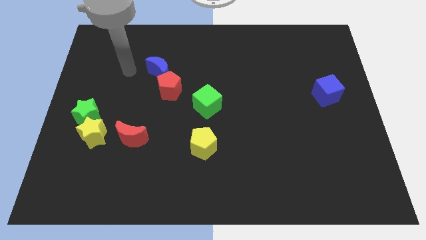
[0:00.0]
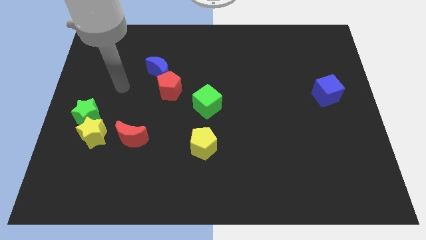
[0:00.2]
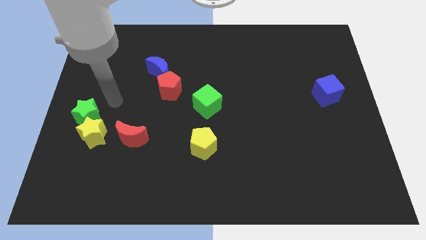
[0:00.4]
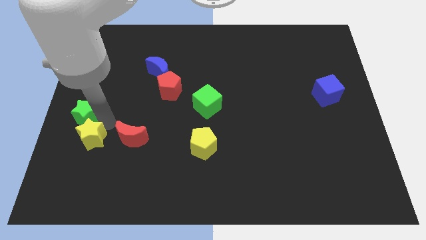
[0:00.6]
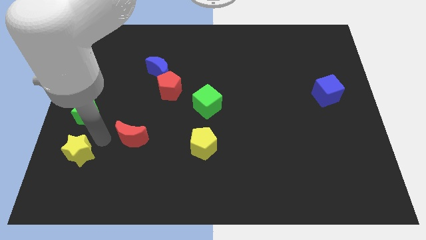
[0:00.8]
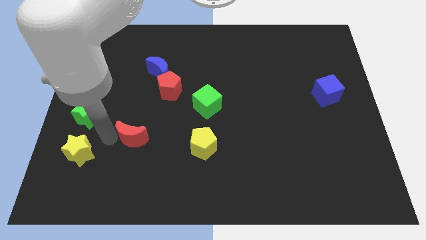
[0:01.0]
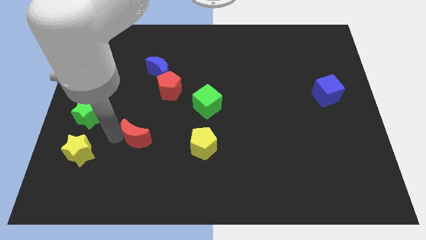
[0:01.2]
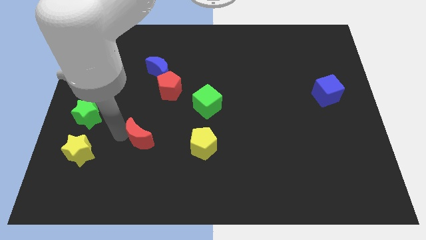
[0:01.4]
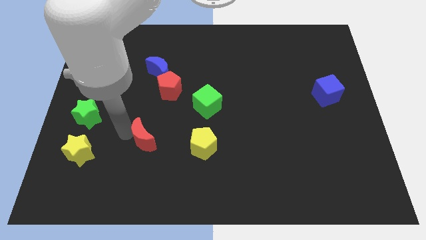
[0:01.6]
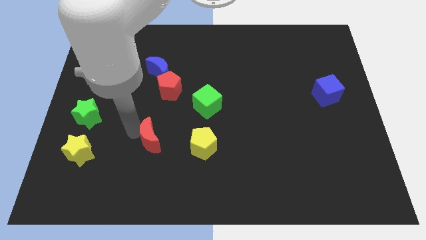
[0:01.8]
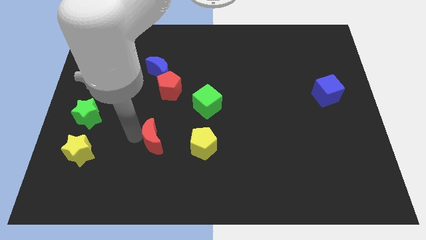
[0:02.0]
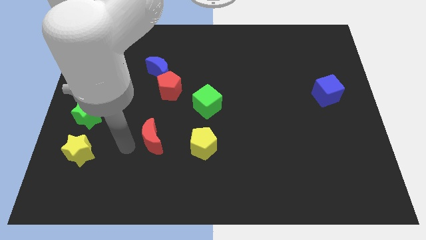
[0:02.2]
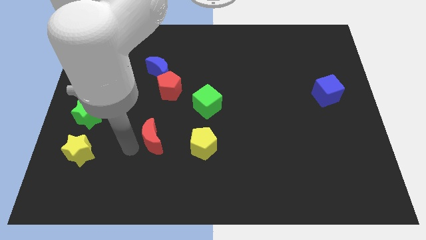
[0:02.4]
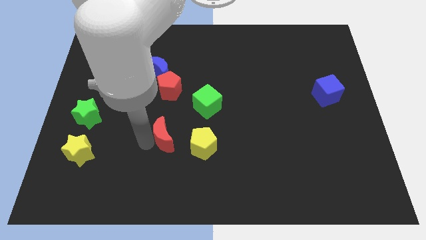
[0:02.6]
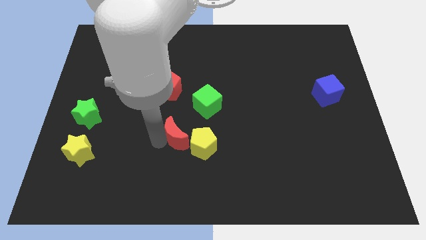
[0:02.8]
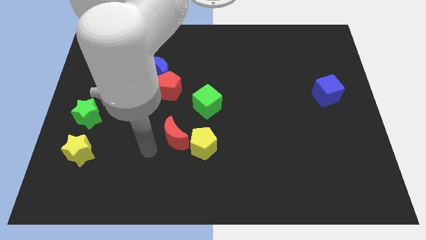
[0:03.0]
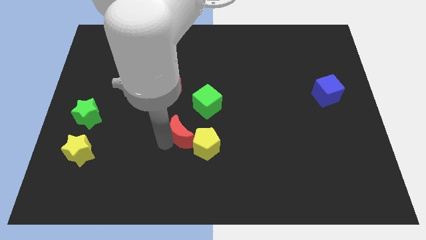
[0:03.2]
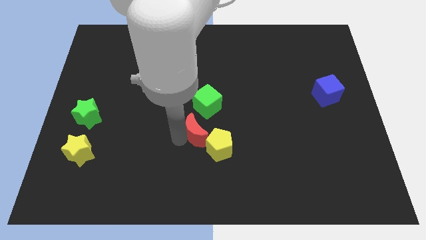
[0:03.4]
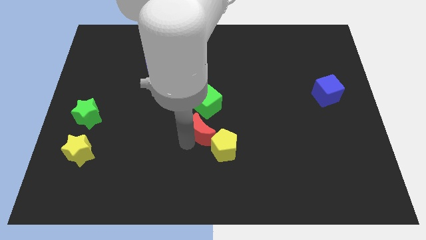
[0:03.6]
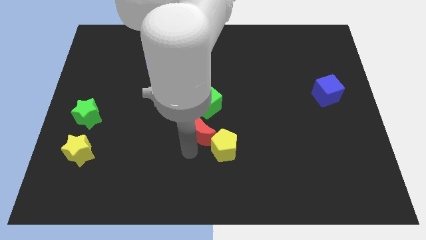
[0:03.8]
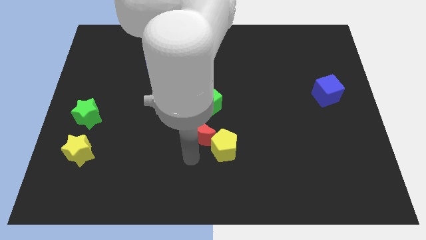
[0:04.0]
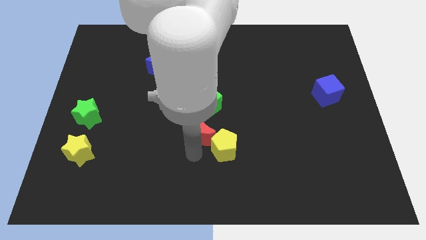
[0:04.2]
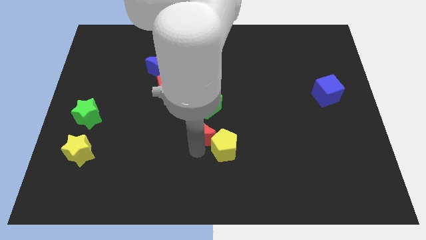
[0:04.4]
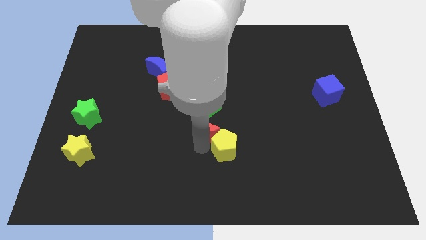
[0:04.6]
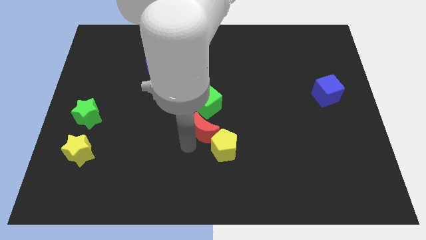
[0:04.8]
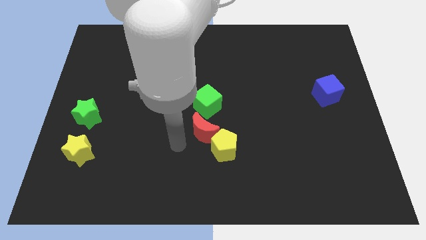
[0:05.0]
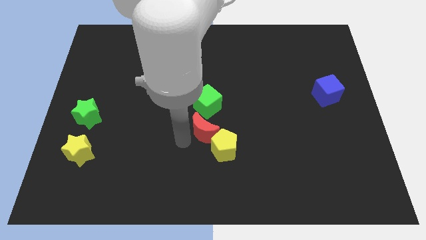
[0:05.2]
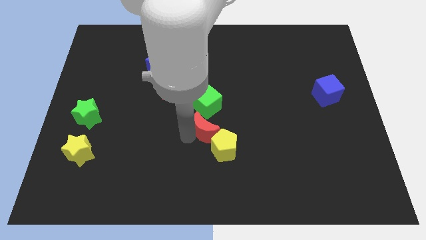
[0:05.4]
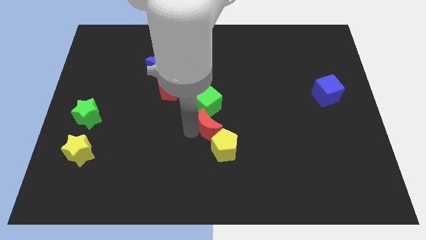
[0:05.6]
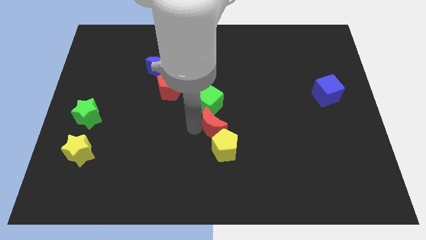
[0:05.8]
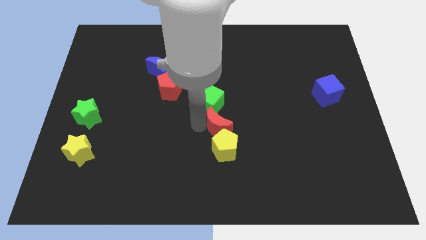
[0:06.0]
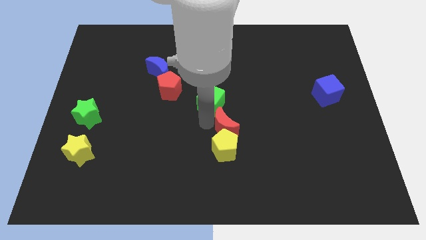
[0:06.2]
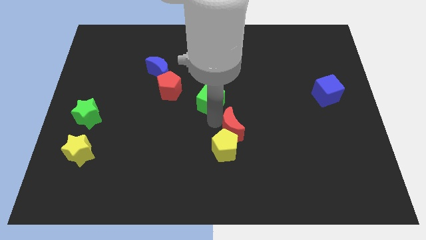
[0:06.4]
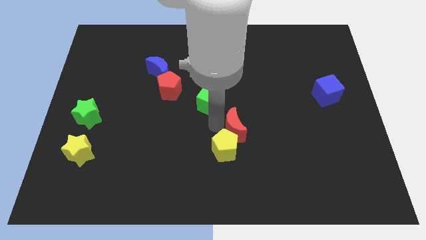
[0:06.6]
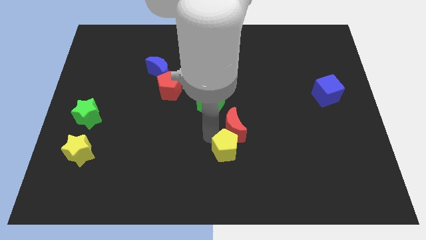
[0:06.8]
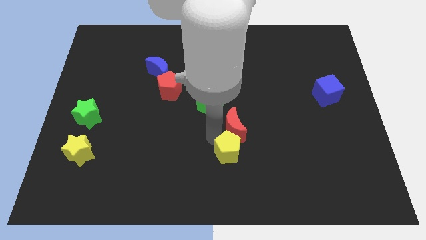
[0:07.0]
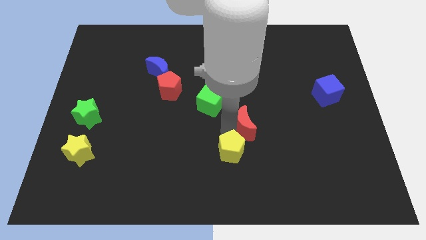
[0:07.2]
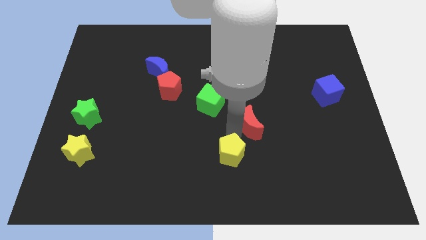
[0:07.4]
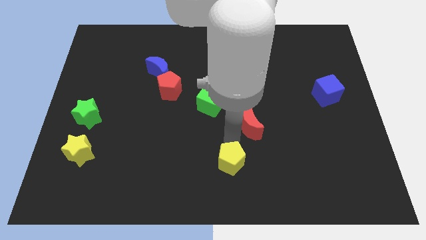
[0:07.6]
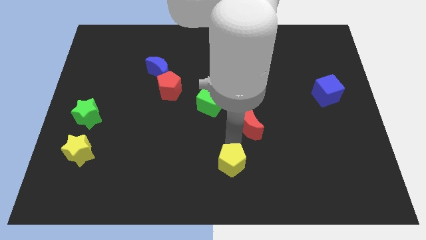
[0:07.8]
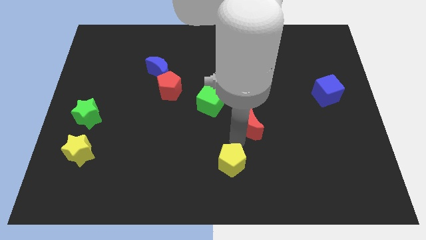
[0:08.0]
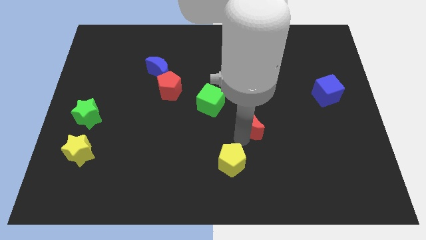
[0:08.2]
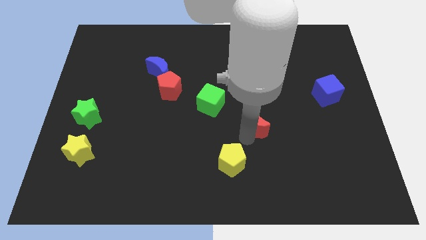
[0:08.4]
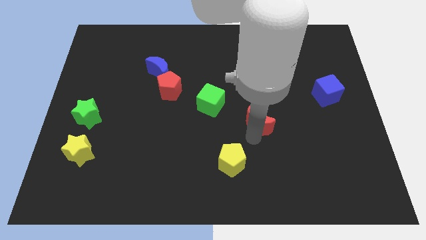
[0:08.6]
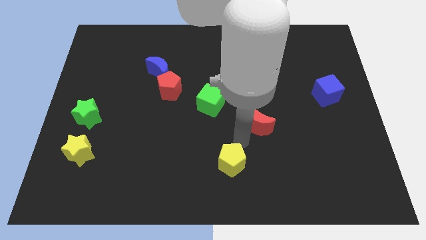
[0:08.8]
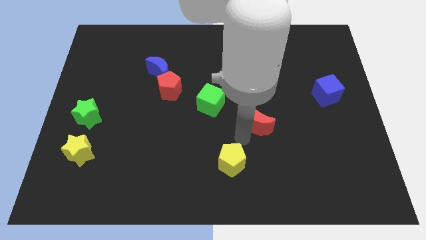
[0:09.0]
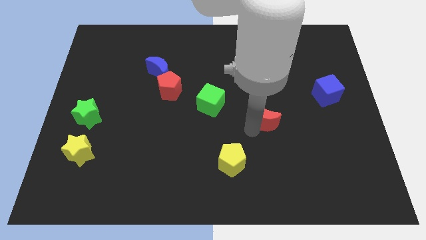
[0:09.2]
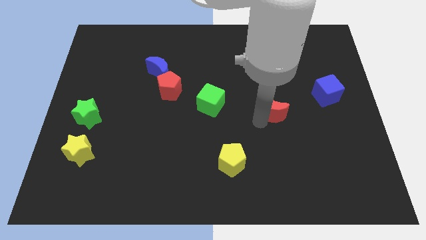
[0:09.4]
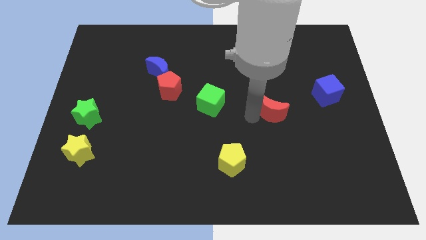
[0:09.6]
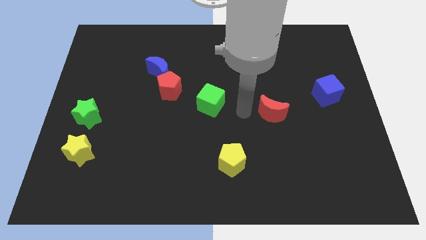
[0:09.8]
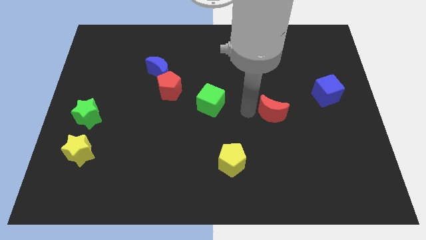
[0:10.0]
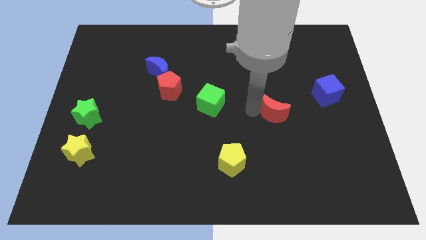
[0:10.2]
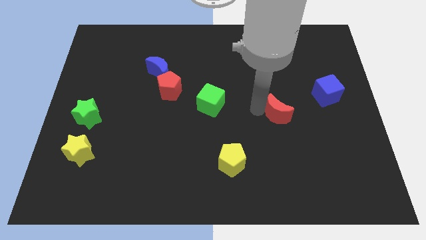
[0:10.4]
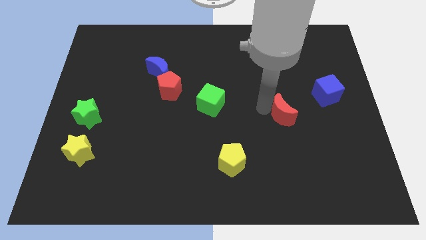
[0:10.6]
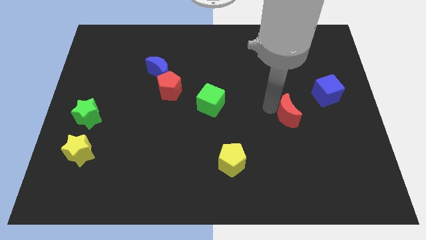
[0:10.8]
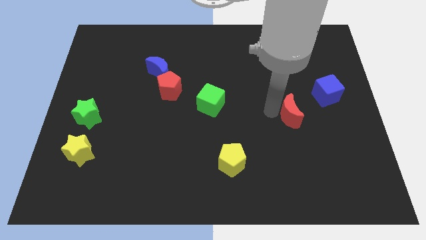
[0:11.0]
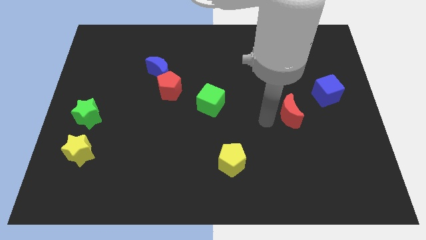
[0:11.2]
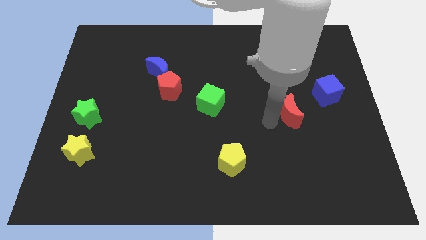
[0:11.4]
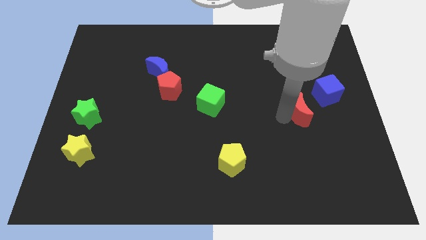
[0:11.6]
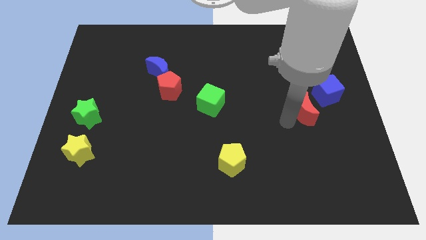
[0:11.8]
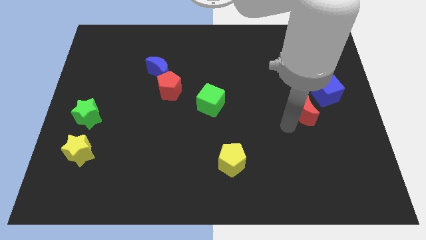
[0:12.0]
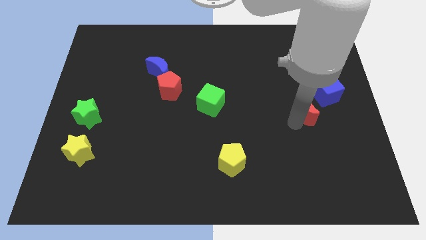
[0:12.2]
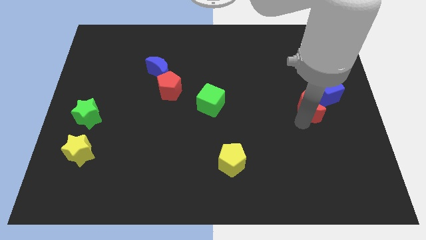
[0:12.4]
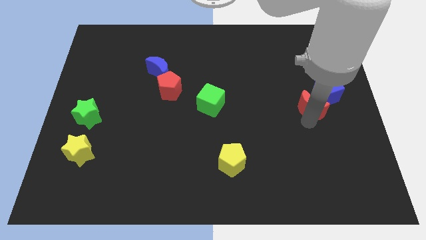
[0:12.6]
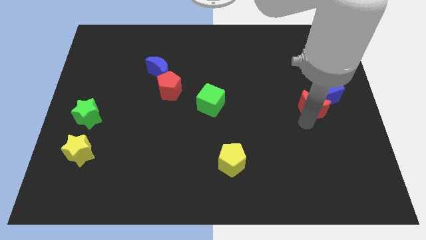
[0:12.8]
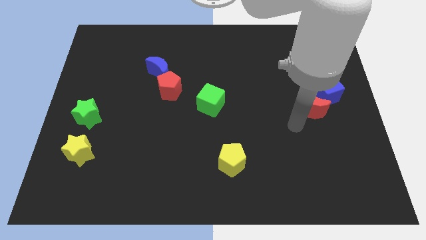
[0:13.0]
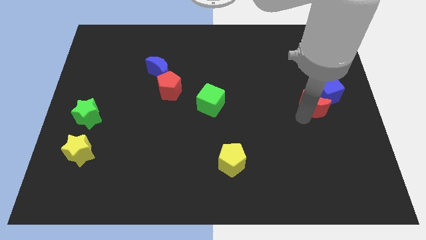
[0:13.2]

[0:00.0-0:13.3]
push the red moon close to the blue cube
